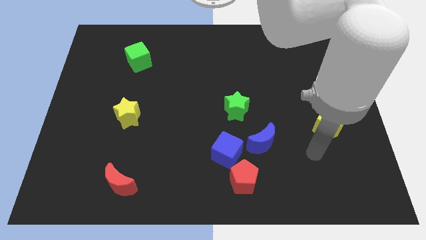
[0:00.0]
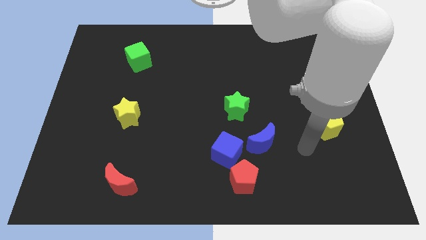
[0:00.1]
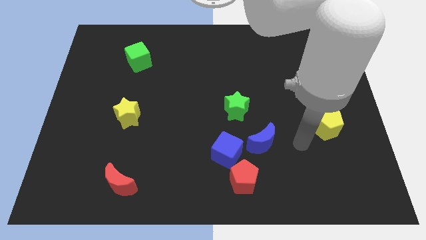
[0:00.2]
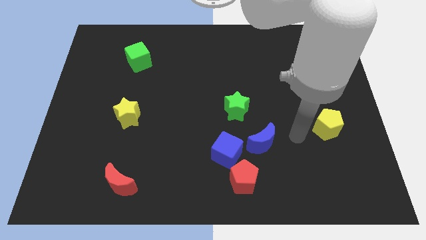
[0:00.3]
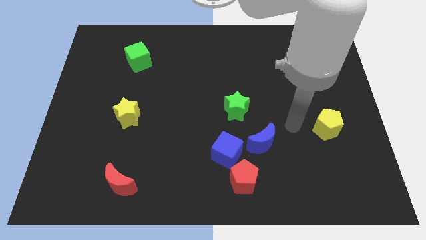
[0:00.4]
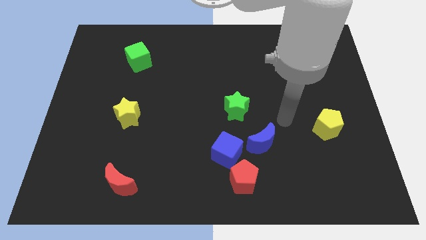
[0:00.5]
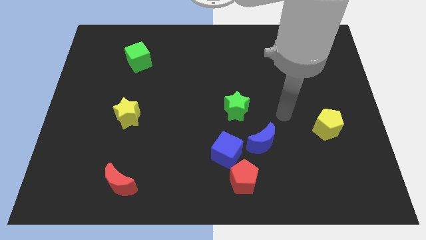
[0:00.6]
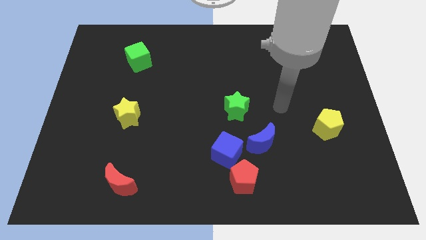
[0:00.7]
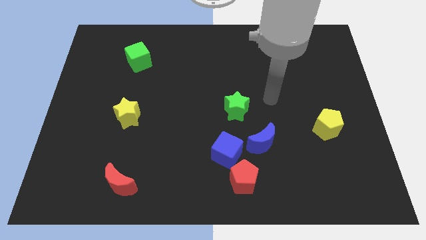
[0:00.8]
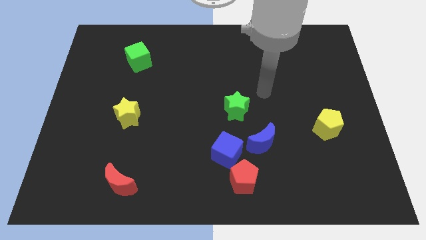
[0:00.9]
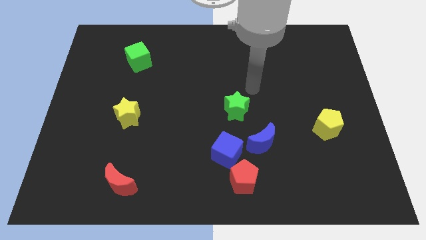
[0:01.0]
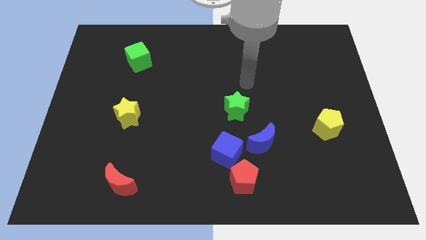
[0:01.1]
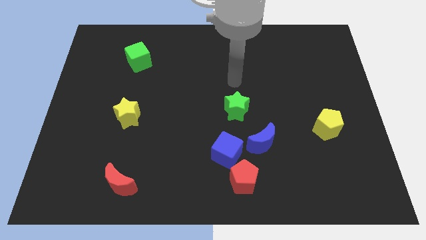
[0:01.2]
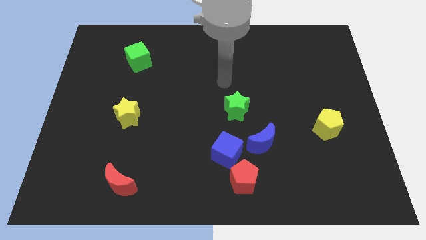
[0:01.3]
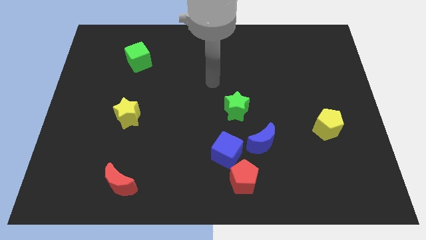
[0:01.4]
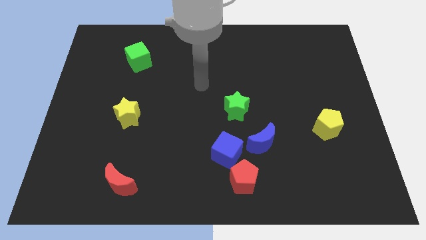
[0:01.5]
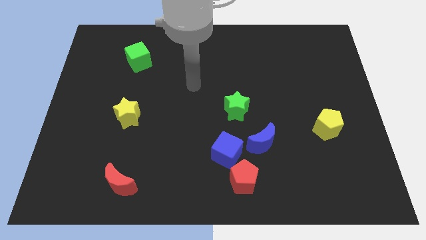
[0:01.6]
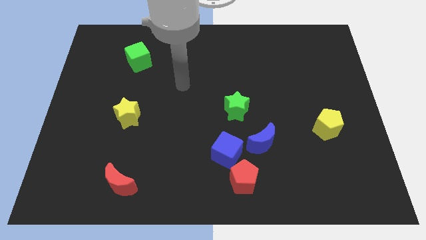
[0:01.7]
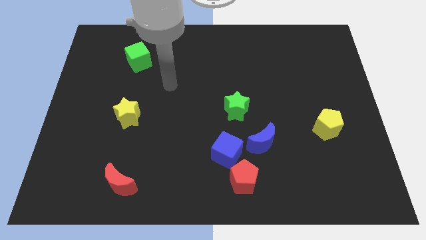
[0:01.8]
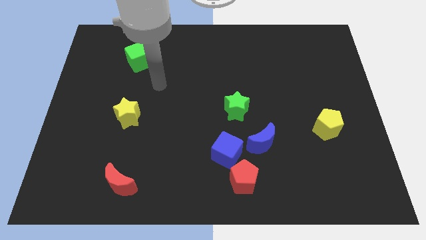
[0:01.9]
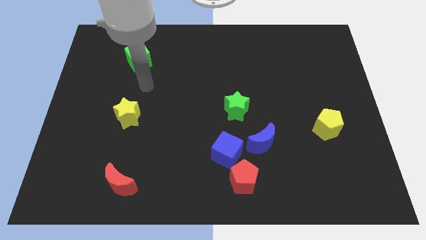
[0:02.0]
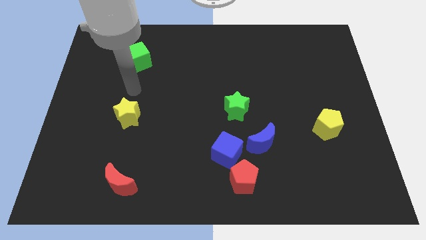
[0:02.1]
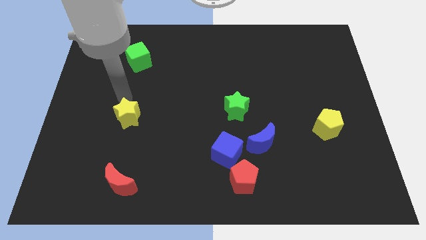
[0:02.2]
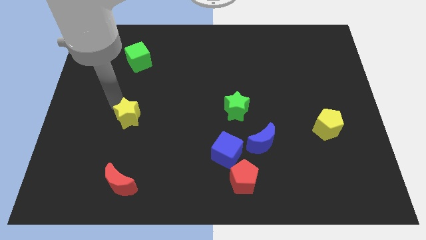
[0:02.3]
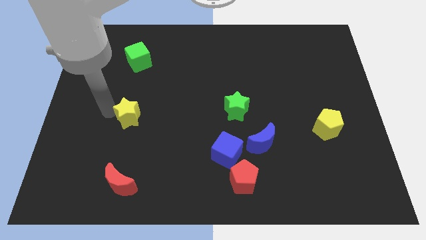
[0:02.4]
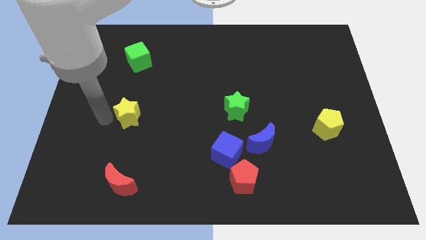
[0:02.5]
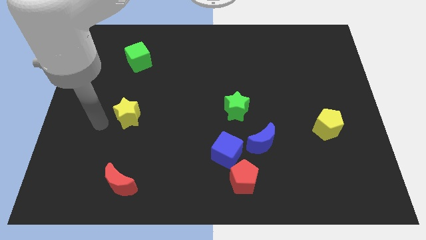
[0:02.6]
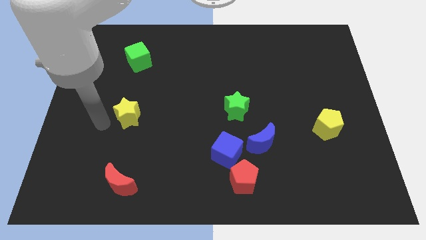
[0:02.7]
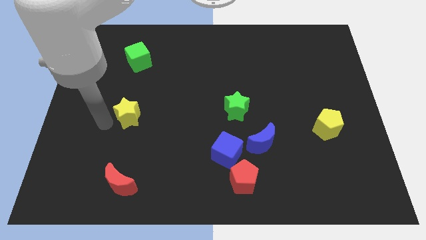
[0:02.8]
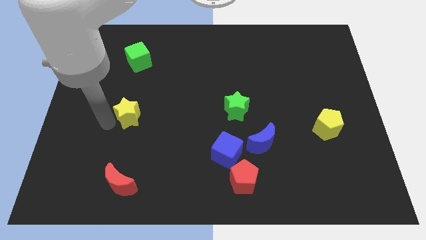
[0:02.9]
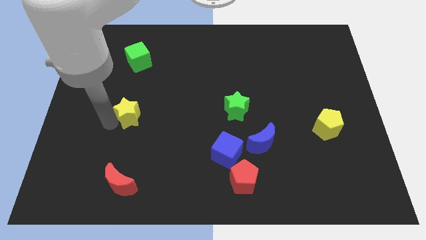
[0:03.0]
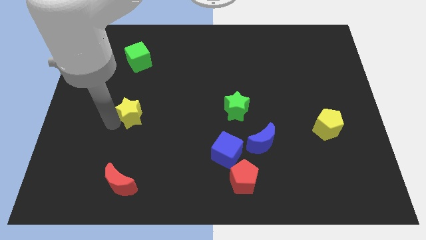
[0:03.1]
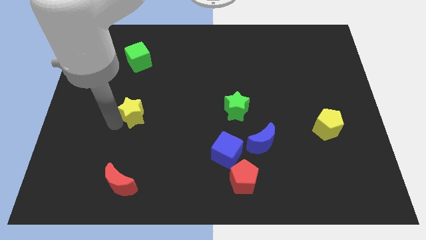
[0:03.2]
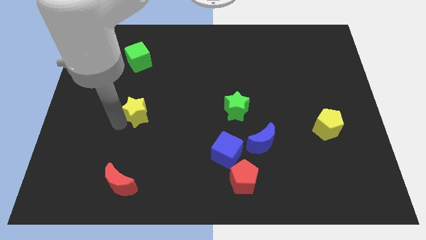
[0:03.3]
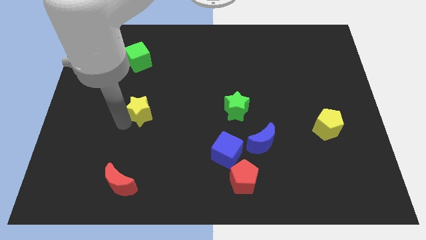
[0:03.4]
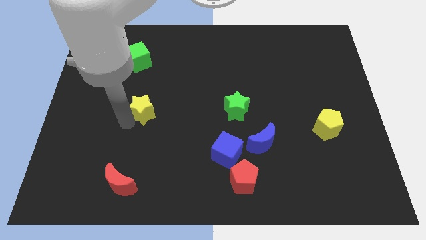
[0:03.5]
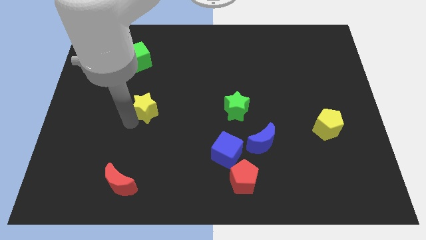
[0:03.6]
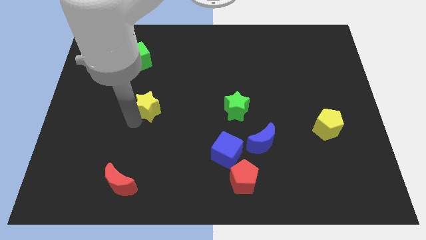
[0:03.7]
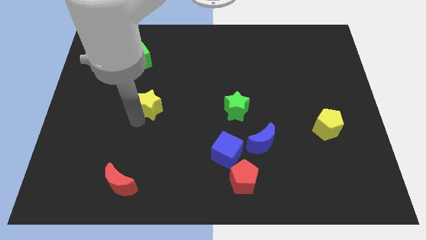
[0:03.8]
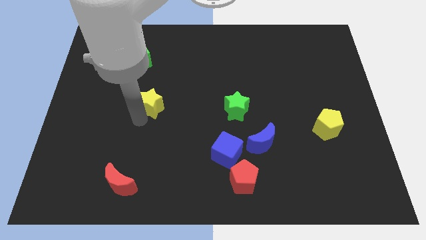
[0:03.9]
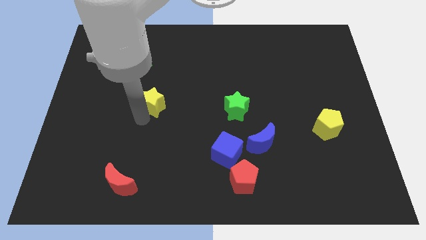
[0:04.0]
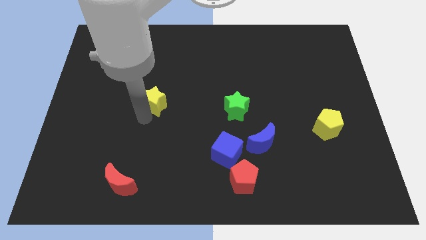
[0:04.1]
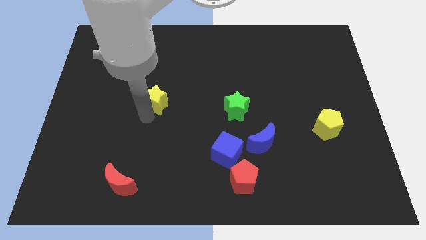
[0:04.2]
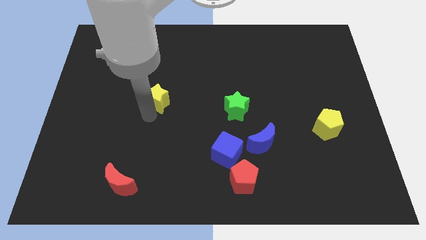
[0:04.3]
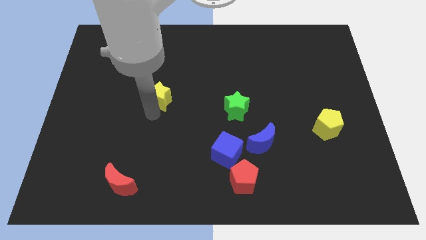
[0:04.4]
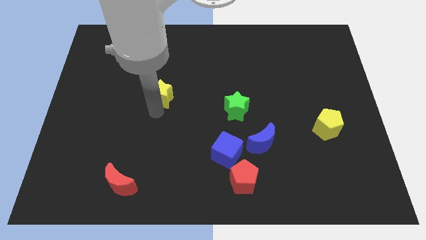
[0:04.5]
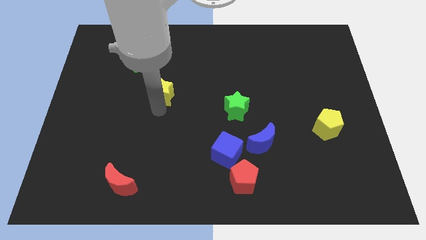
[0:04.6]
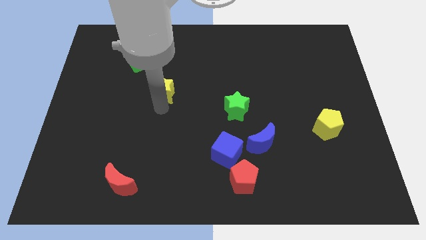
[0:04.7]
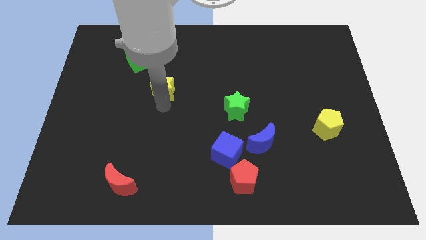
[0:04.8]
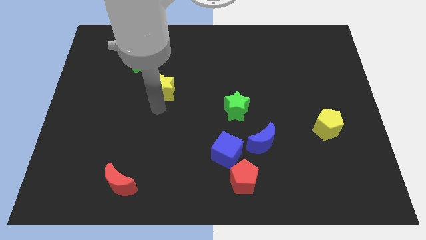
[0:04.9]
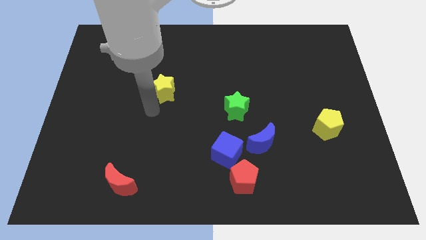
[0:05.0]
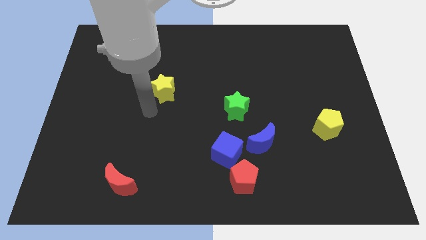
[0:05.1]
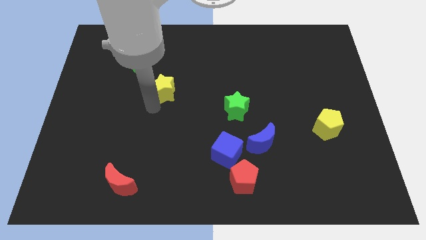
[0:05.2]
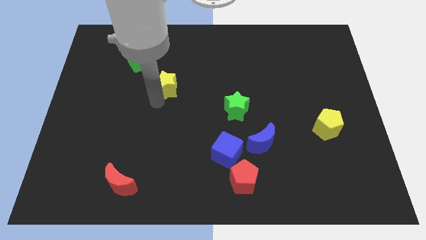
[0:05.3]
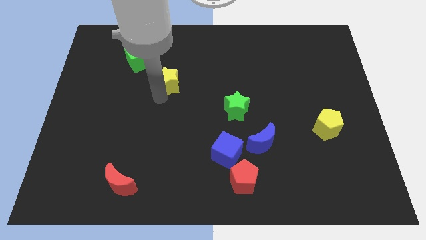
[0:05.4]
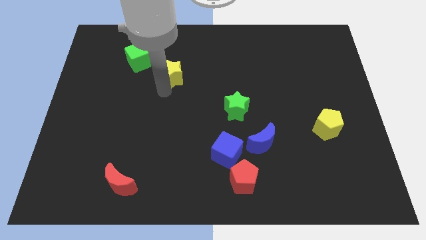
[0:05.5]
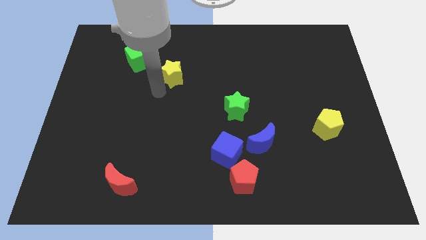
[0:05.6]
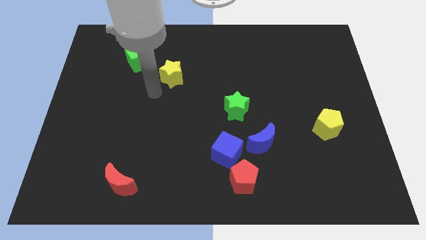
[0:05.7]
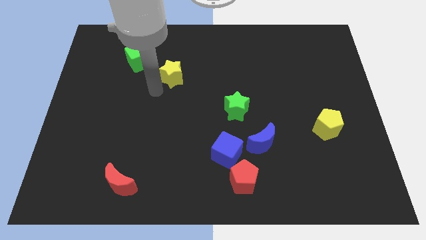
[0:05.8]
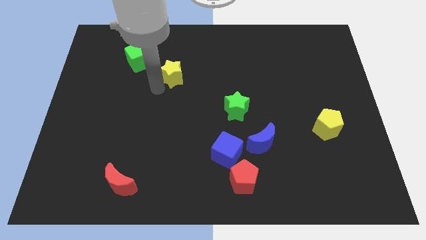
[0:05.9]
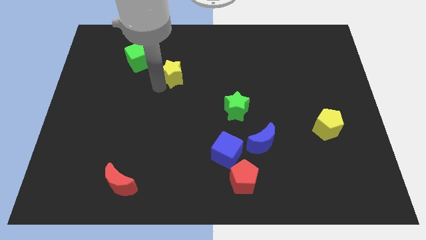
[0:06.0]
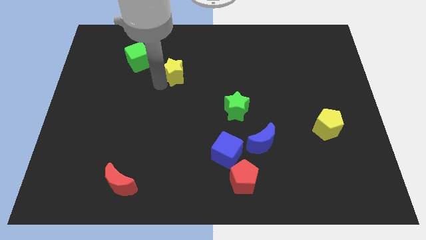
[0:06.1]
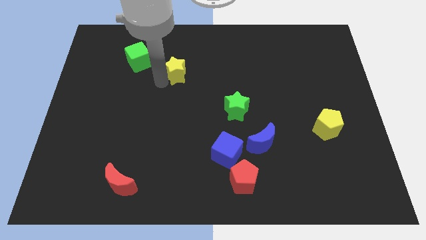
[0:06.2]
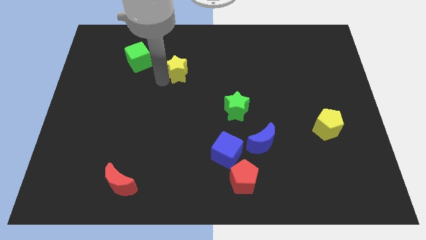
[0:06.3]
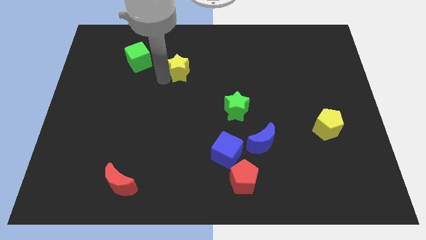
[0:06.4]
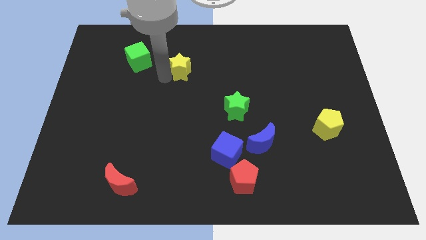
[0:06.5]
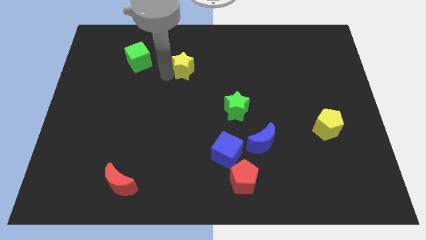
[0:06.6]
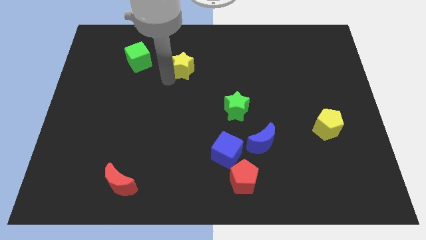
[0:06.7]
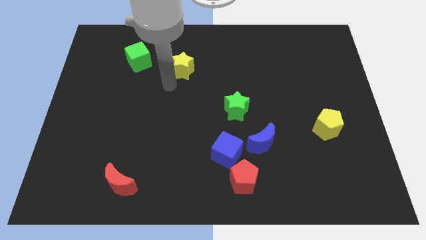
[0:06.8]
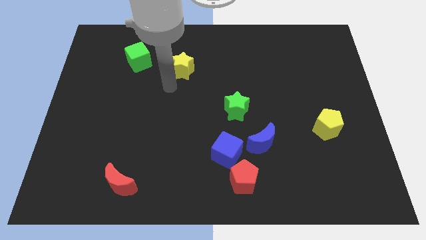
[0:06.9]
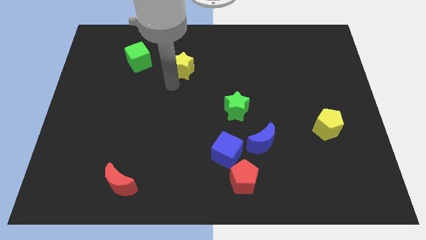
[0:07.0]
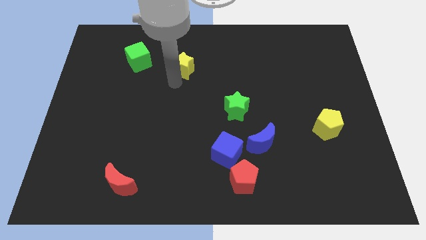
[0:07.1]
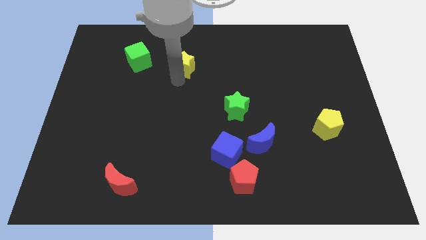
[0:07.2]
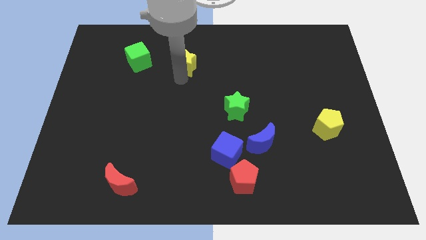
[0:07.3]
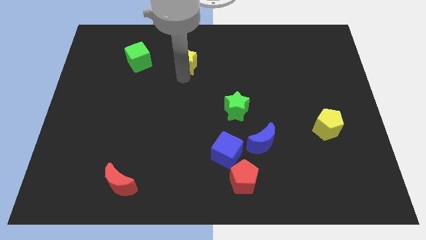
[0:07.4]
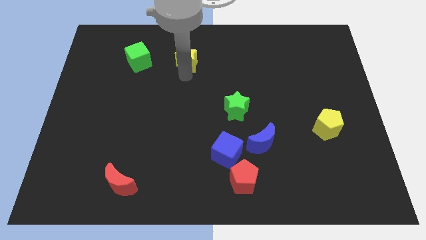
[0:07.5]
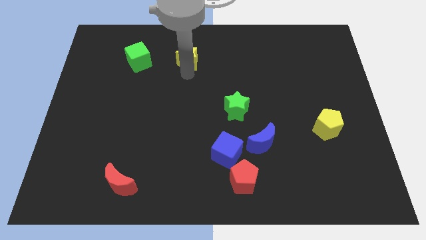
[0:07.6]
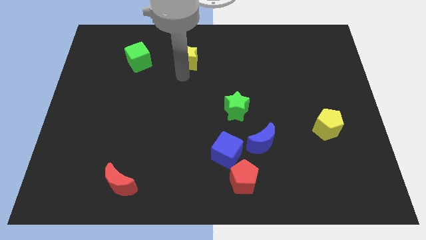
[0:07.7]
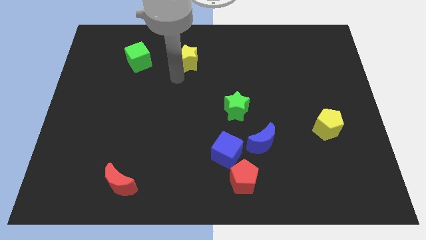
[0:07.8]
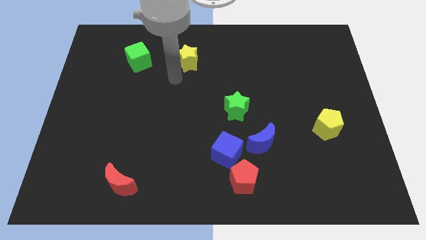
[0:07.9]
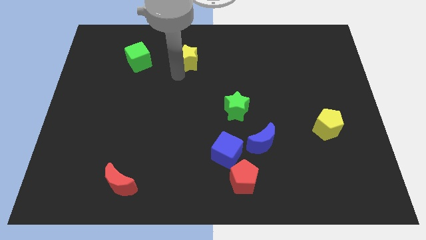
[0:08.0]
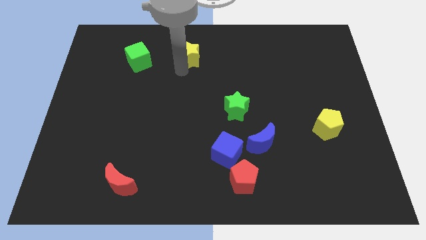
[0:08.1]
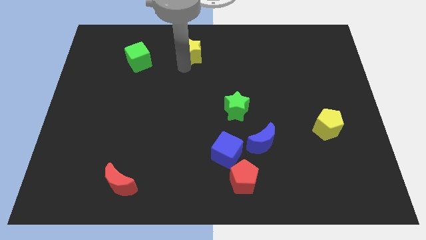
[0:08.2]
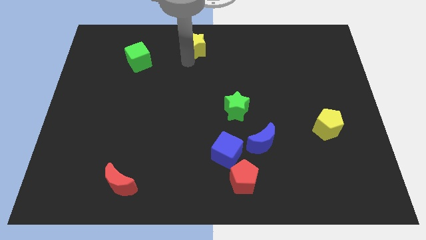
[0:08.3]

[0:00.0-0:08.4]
slide the yellow star to the towards your base
